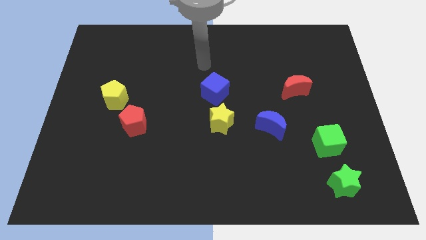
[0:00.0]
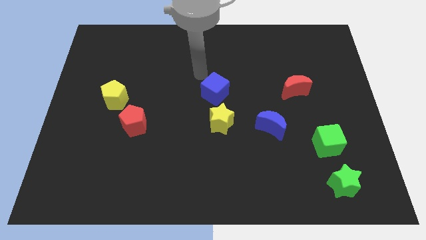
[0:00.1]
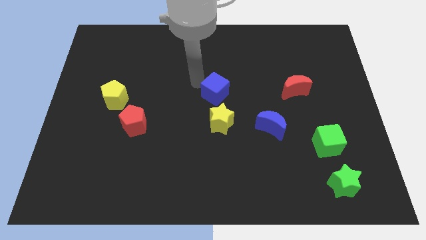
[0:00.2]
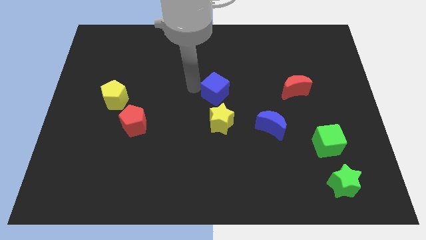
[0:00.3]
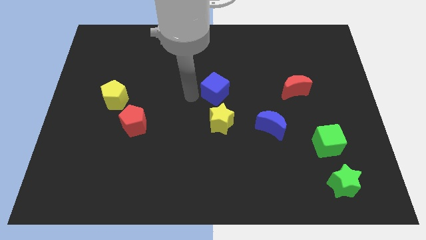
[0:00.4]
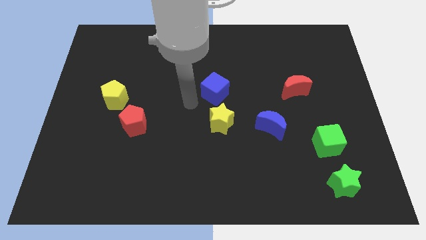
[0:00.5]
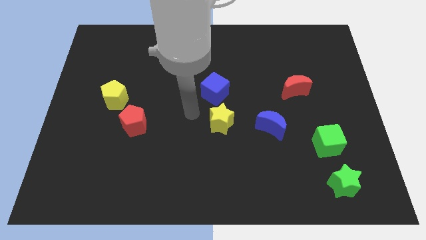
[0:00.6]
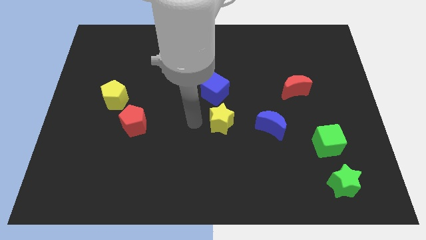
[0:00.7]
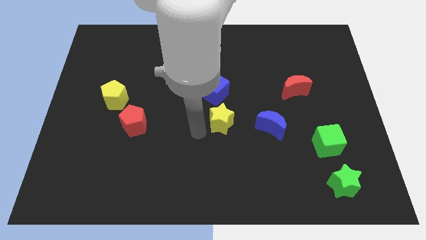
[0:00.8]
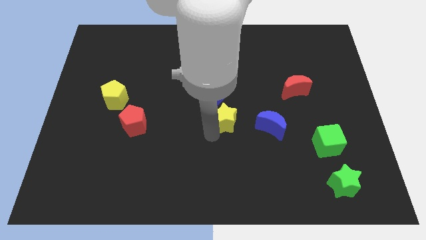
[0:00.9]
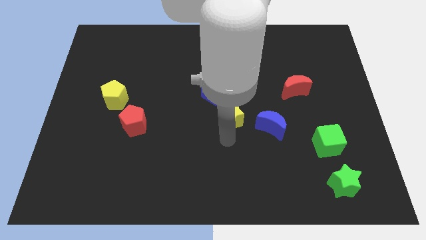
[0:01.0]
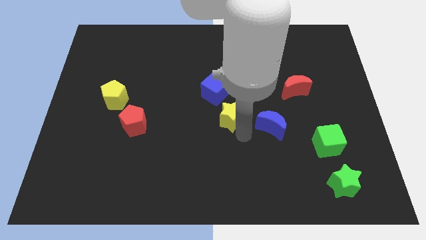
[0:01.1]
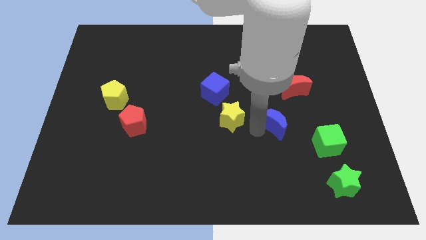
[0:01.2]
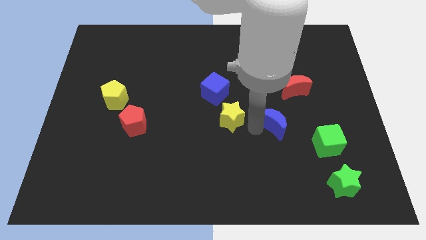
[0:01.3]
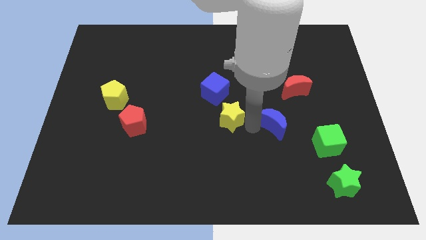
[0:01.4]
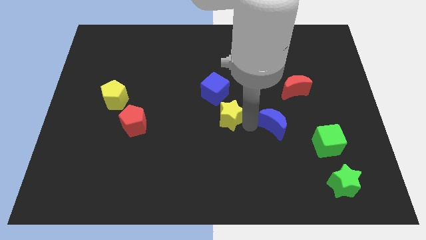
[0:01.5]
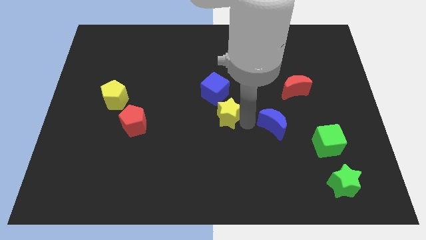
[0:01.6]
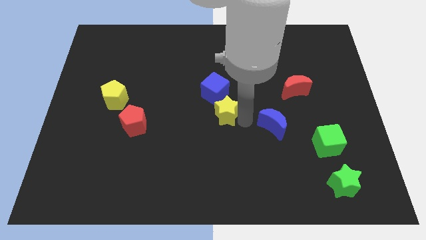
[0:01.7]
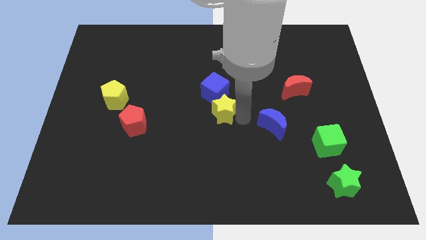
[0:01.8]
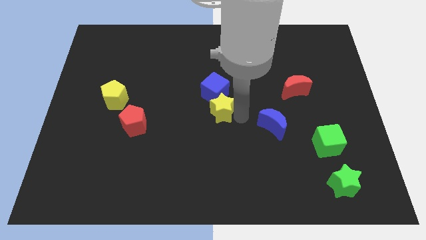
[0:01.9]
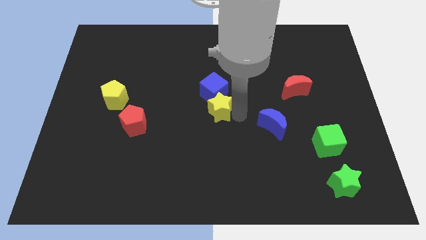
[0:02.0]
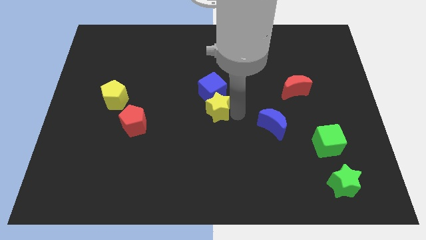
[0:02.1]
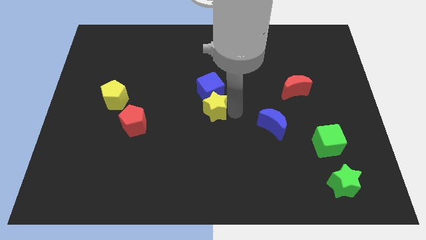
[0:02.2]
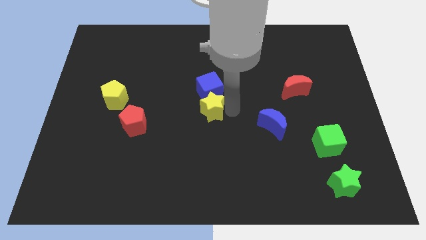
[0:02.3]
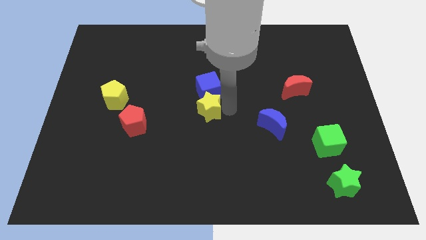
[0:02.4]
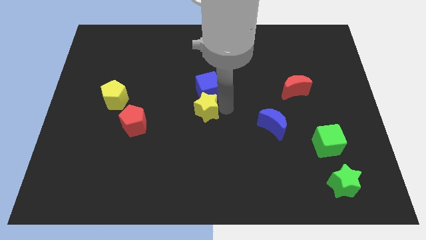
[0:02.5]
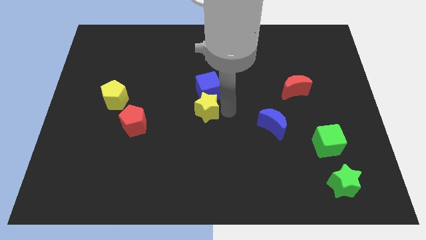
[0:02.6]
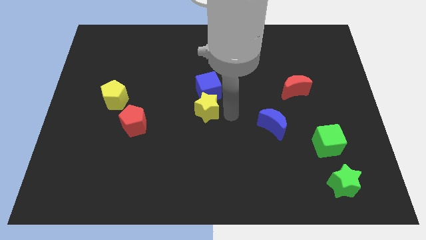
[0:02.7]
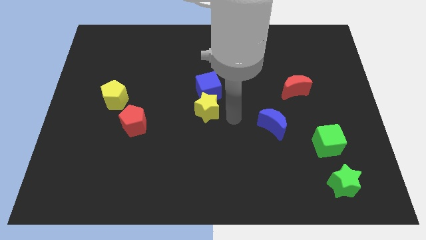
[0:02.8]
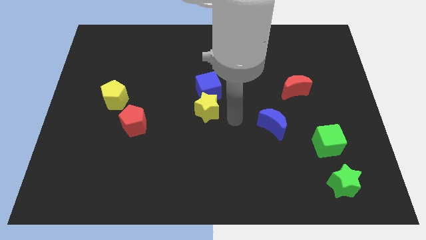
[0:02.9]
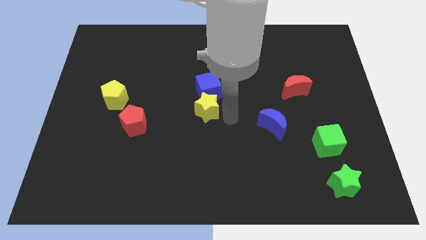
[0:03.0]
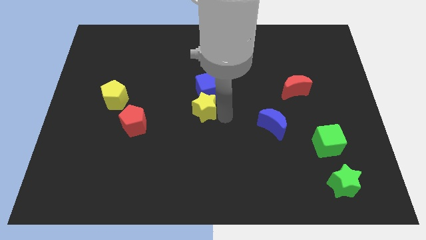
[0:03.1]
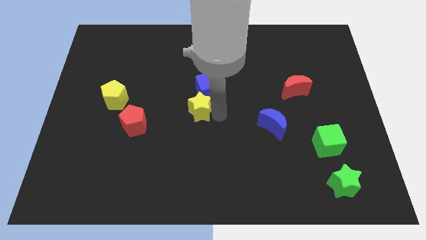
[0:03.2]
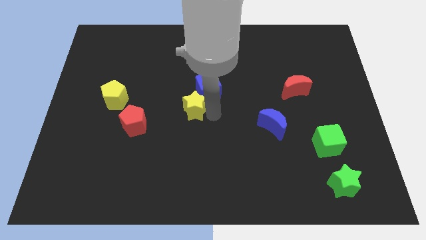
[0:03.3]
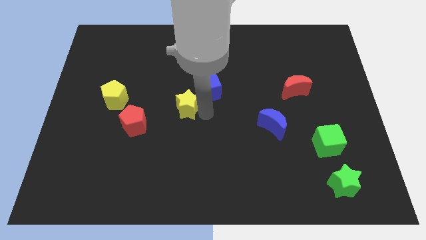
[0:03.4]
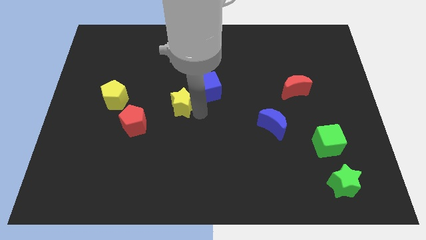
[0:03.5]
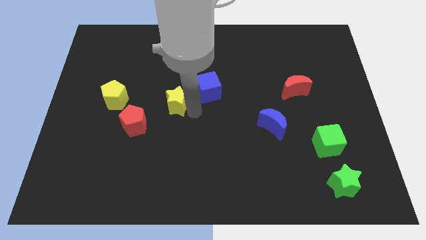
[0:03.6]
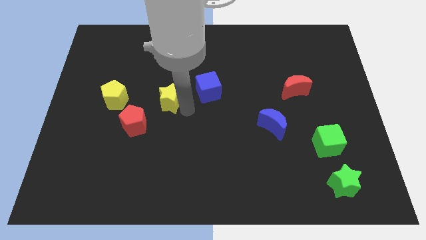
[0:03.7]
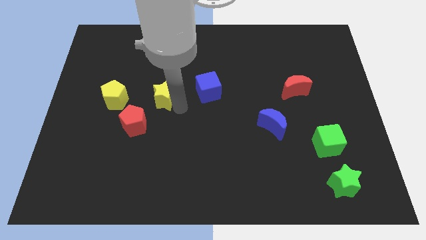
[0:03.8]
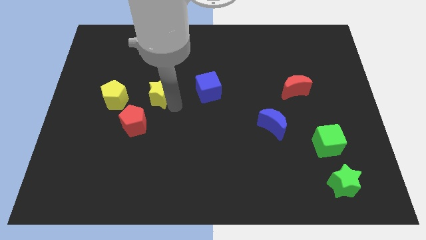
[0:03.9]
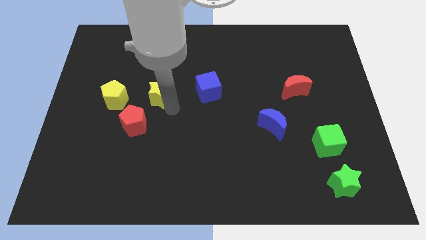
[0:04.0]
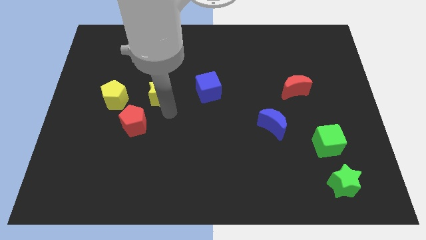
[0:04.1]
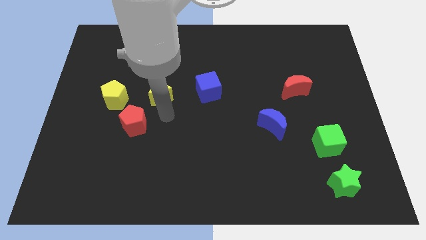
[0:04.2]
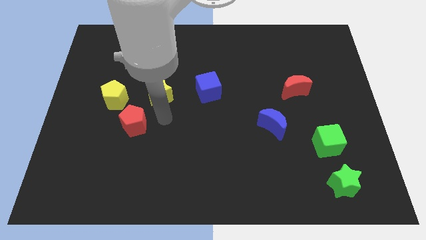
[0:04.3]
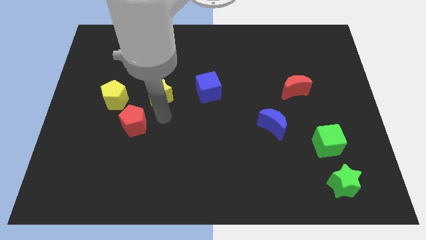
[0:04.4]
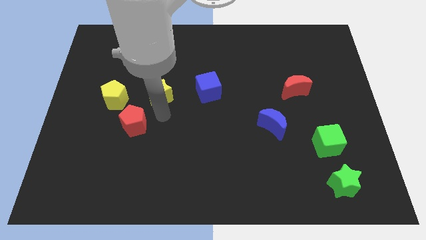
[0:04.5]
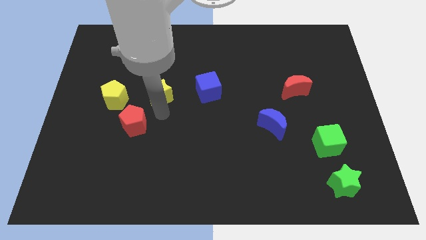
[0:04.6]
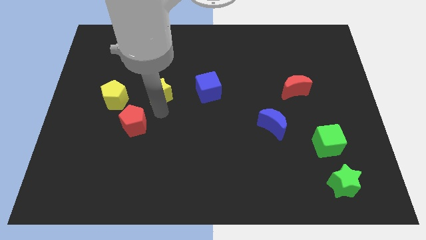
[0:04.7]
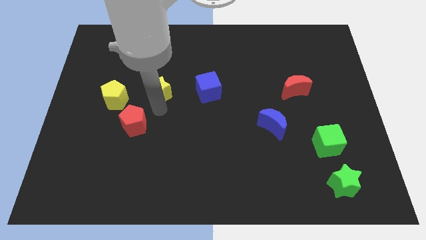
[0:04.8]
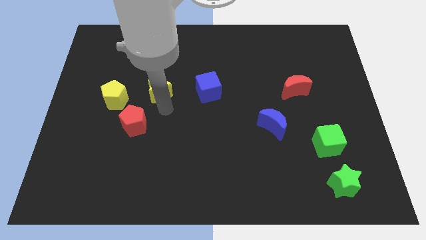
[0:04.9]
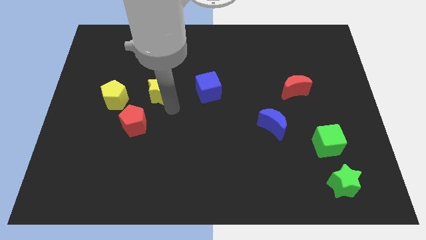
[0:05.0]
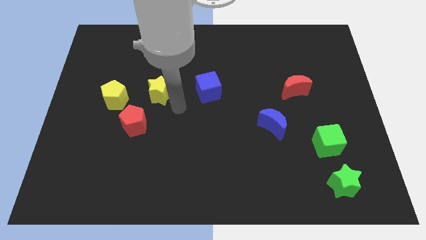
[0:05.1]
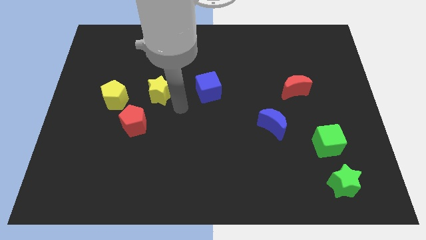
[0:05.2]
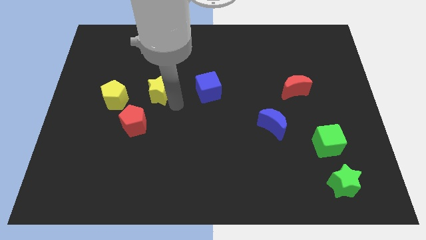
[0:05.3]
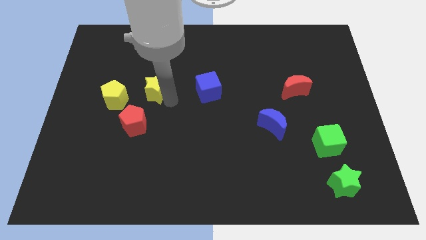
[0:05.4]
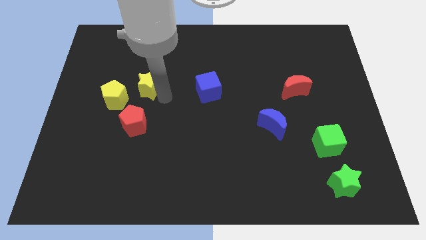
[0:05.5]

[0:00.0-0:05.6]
slide the yellow star to the top right side of the yellow pentagon

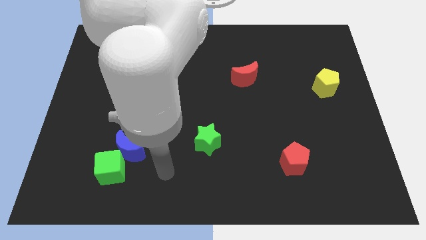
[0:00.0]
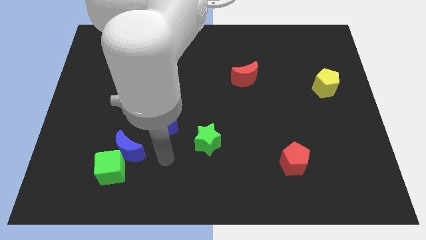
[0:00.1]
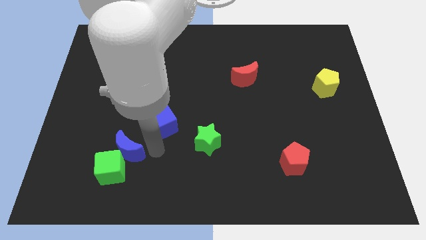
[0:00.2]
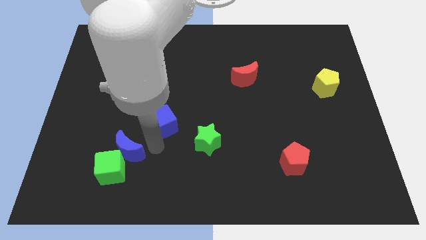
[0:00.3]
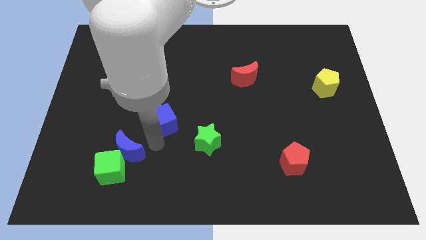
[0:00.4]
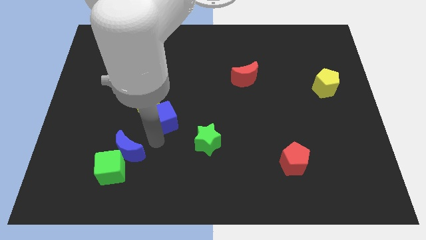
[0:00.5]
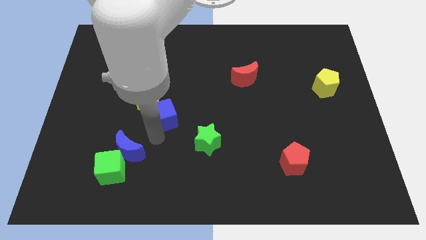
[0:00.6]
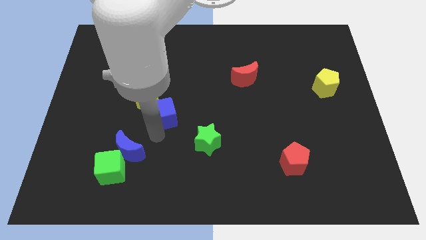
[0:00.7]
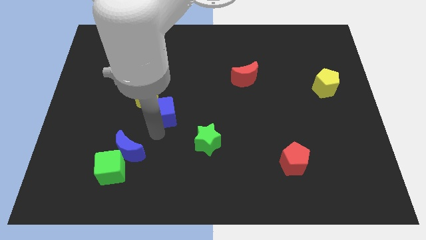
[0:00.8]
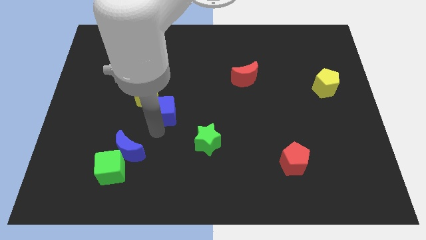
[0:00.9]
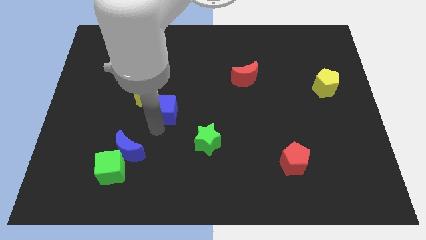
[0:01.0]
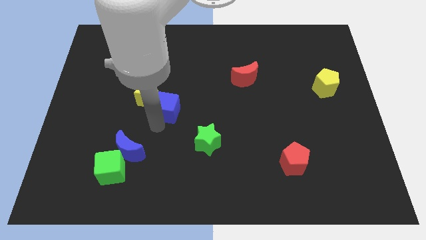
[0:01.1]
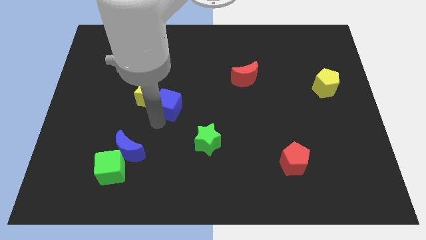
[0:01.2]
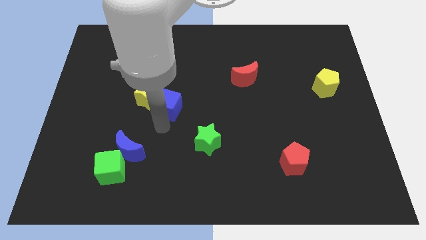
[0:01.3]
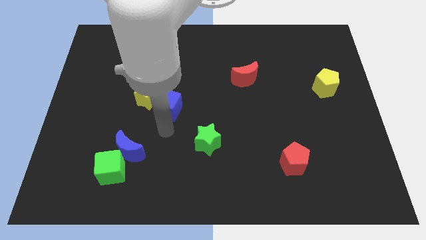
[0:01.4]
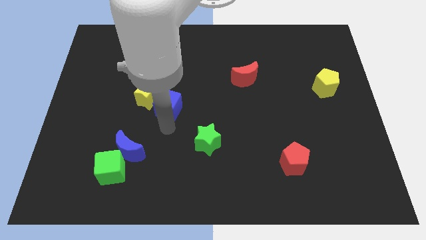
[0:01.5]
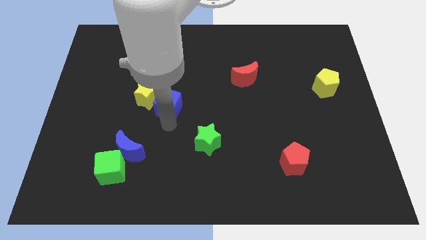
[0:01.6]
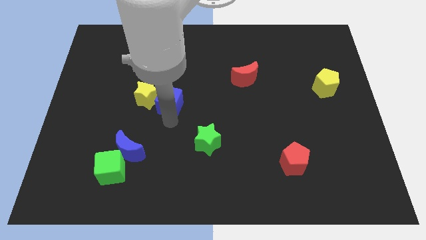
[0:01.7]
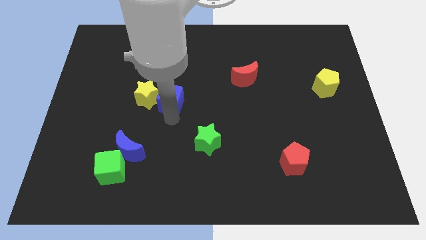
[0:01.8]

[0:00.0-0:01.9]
slide the blue cube to the top right of the yellow star

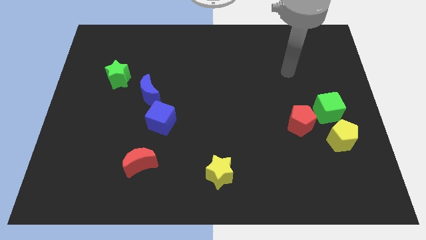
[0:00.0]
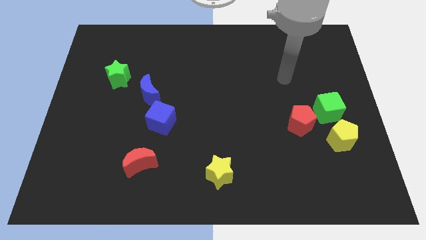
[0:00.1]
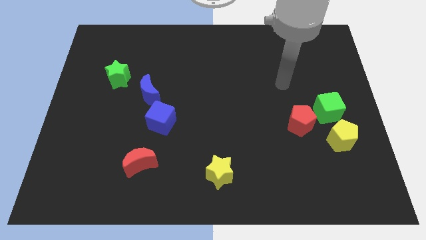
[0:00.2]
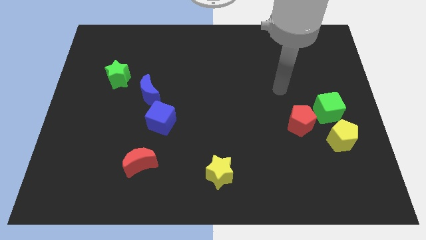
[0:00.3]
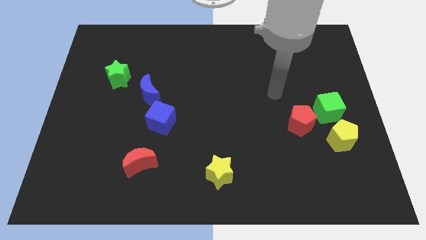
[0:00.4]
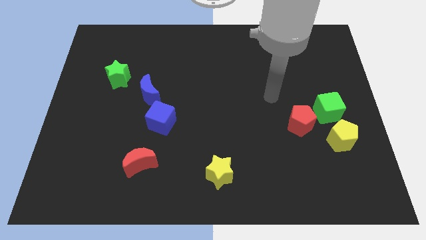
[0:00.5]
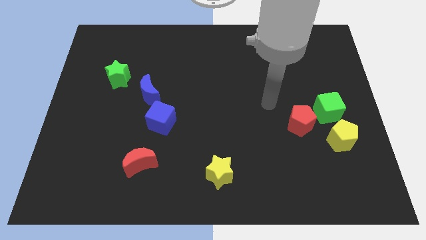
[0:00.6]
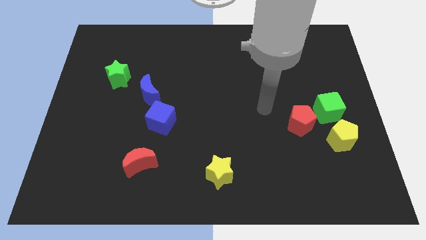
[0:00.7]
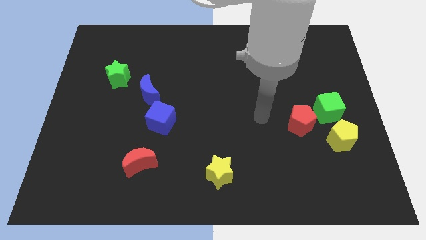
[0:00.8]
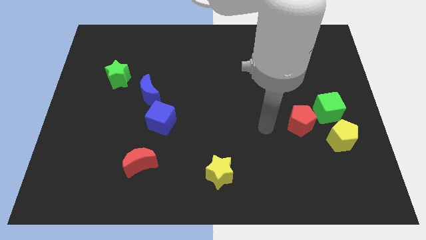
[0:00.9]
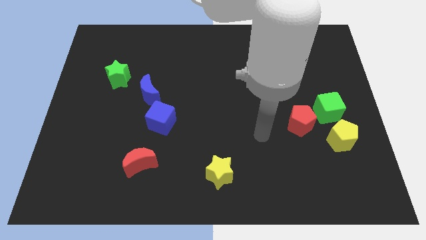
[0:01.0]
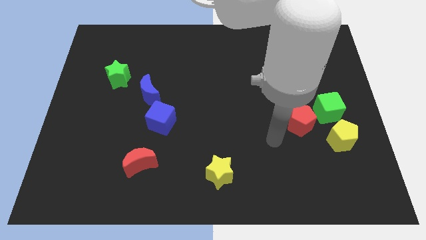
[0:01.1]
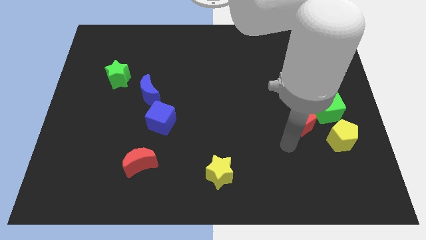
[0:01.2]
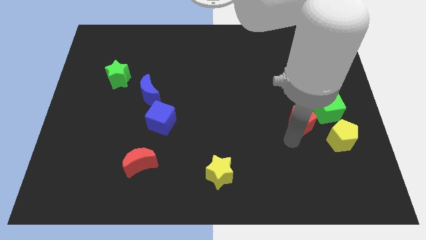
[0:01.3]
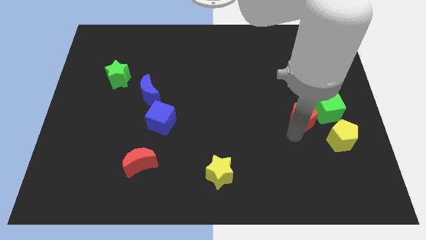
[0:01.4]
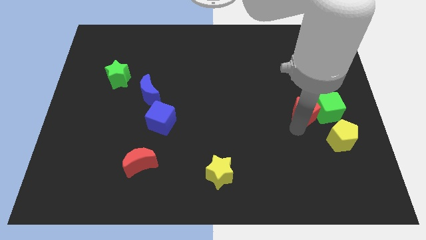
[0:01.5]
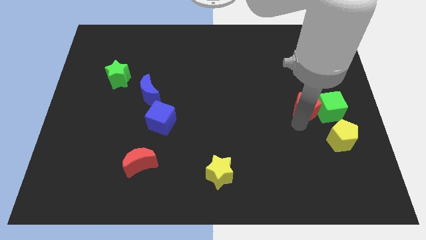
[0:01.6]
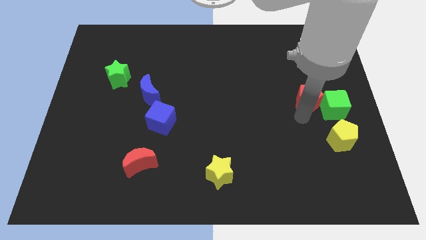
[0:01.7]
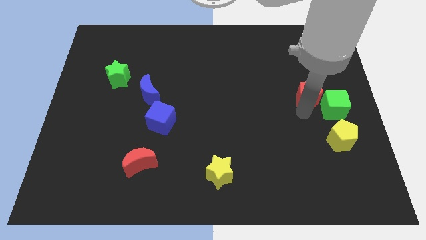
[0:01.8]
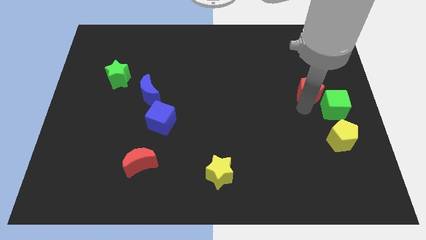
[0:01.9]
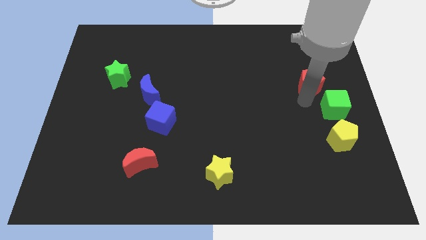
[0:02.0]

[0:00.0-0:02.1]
push the red pentagon to the top of the green cube
